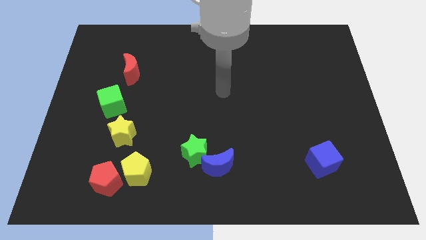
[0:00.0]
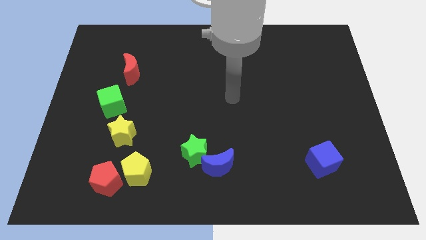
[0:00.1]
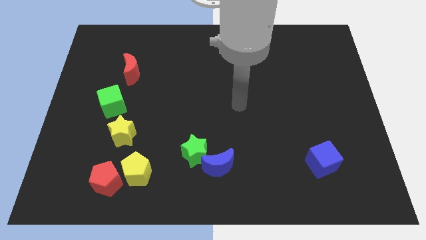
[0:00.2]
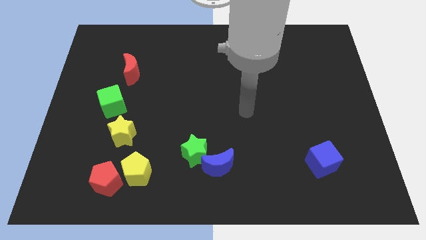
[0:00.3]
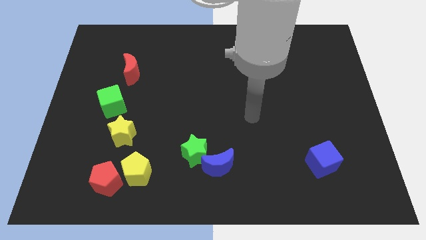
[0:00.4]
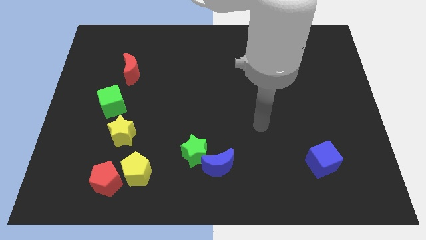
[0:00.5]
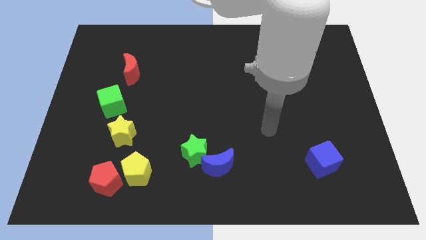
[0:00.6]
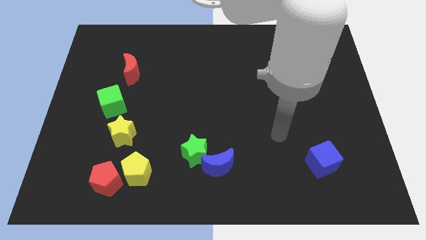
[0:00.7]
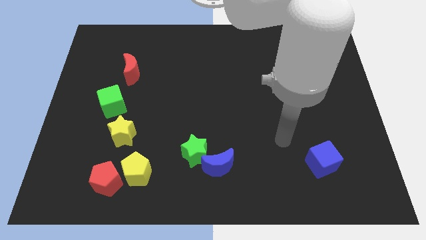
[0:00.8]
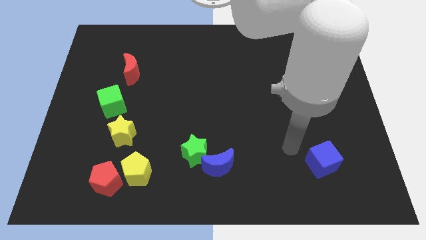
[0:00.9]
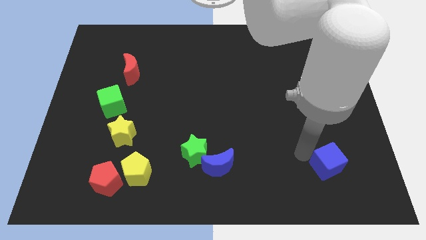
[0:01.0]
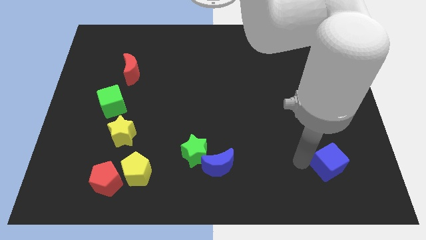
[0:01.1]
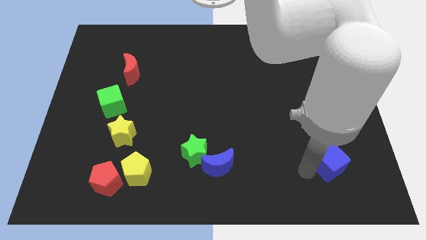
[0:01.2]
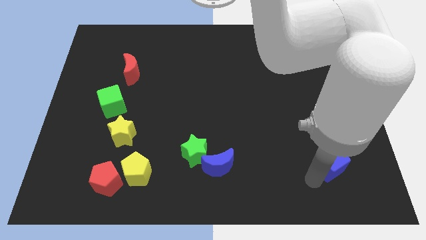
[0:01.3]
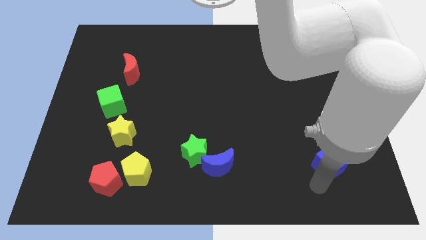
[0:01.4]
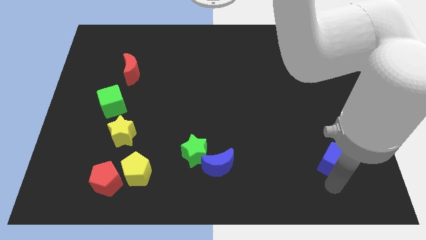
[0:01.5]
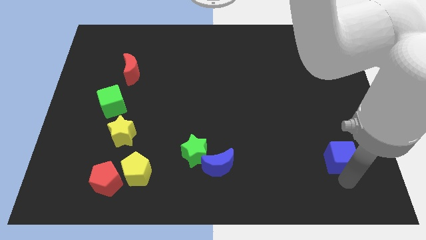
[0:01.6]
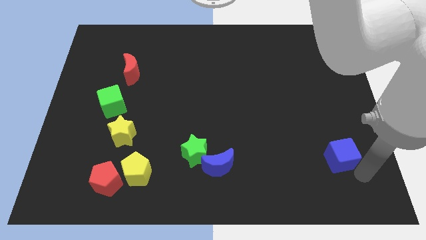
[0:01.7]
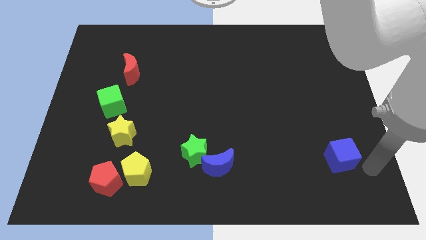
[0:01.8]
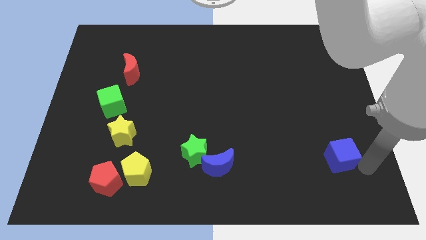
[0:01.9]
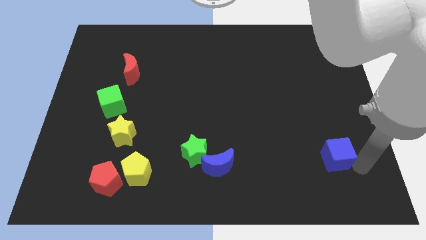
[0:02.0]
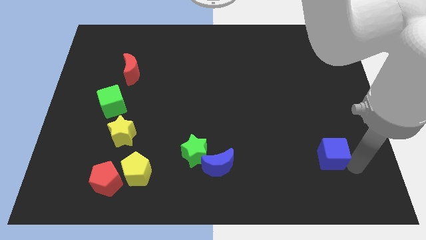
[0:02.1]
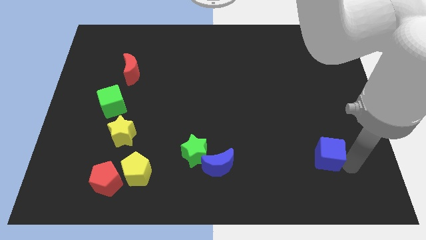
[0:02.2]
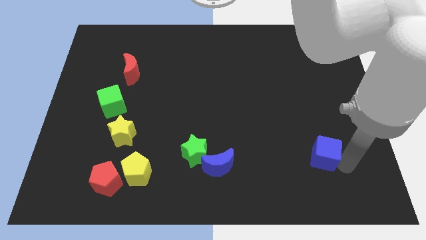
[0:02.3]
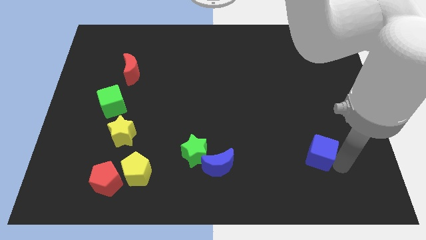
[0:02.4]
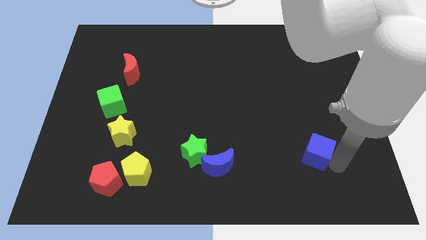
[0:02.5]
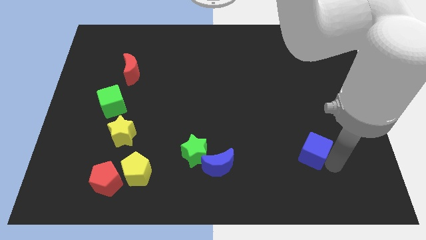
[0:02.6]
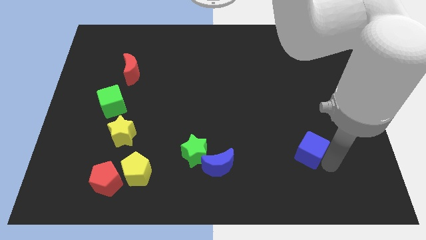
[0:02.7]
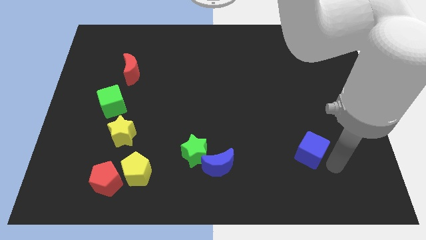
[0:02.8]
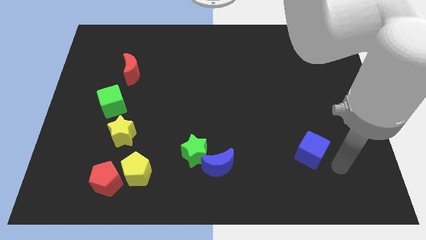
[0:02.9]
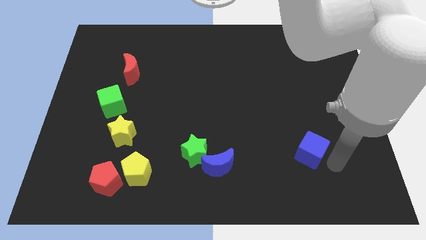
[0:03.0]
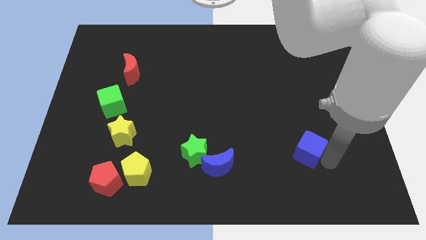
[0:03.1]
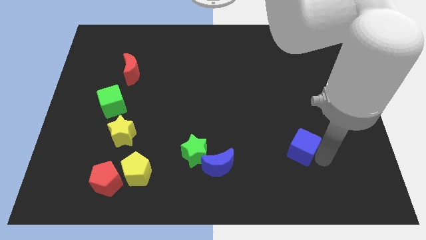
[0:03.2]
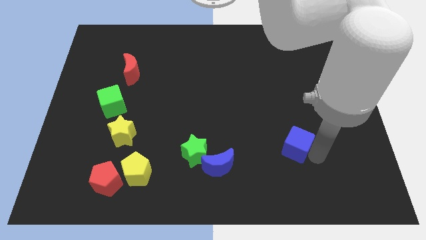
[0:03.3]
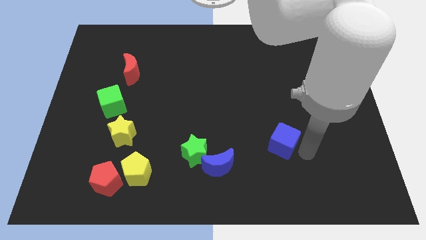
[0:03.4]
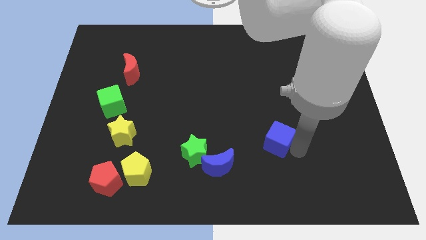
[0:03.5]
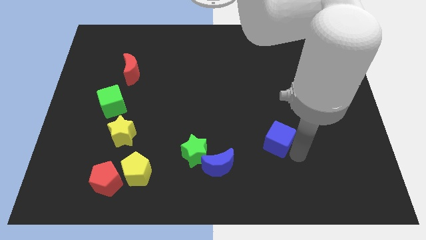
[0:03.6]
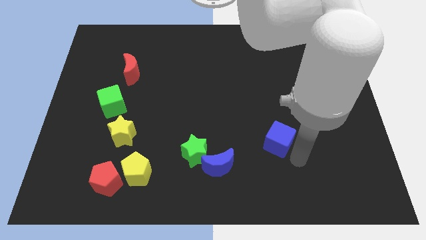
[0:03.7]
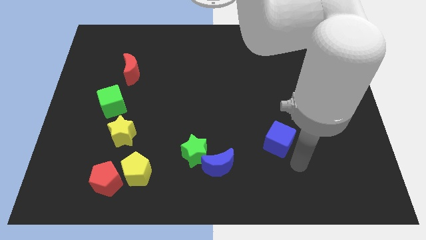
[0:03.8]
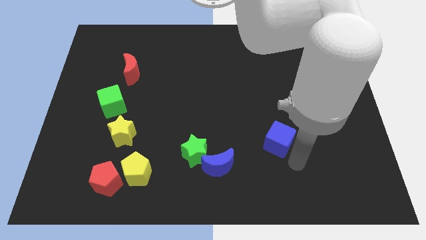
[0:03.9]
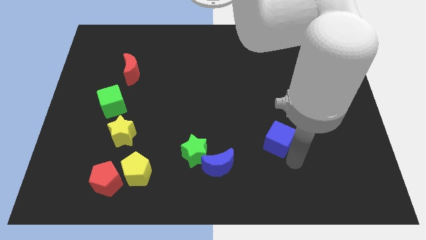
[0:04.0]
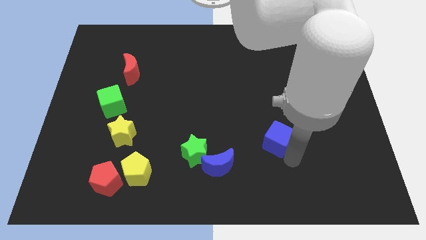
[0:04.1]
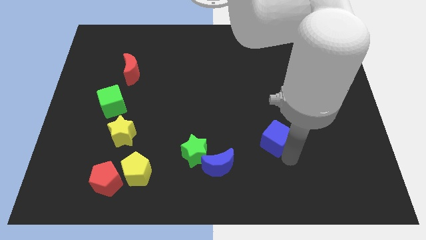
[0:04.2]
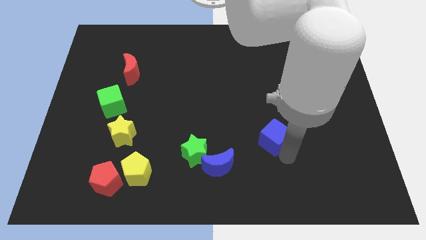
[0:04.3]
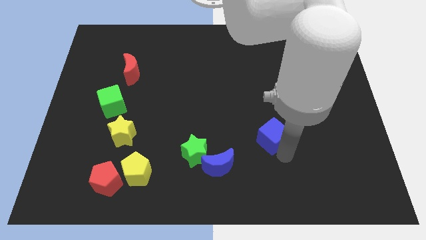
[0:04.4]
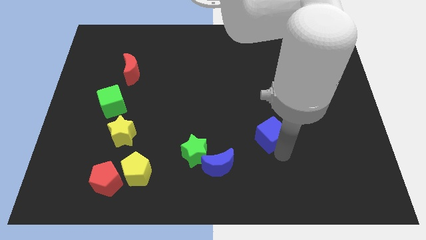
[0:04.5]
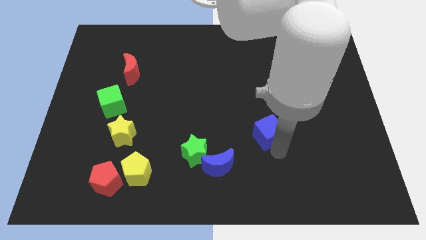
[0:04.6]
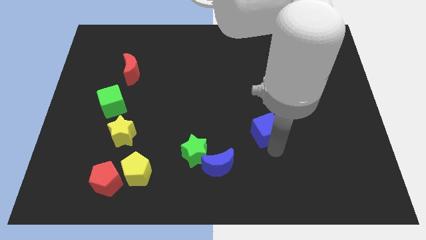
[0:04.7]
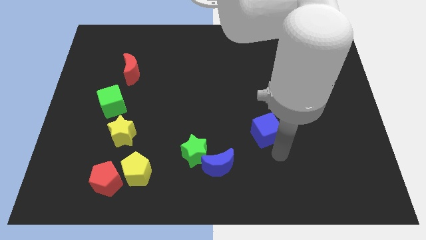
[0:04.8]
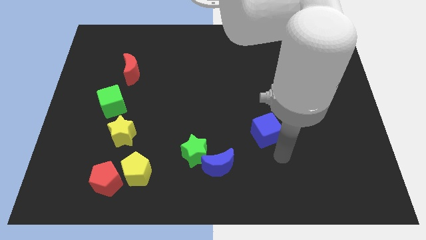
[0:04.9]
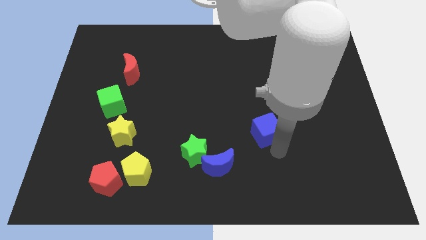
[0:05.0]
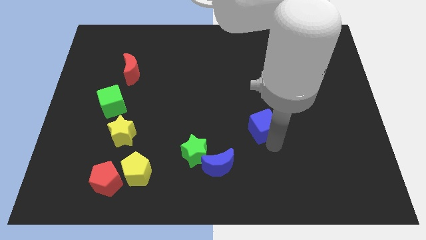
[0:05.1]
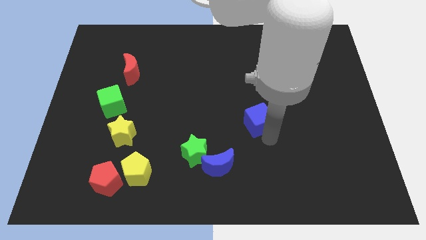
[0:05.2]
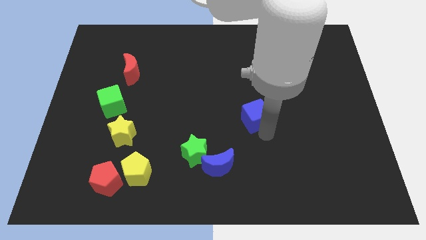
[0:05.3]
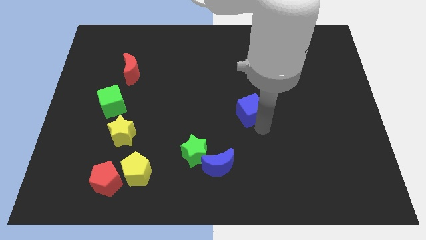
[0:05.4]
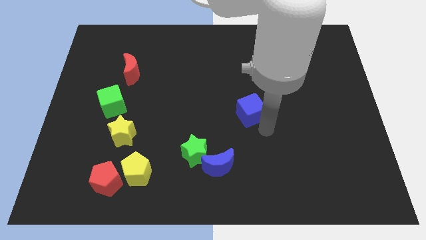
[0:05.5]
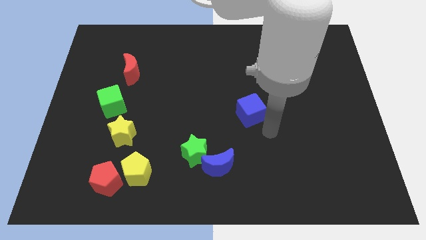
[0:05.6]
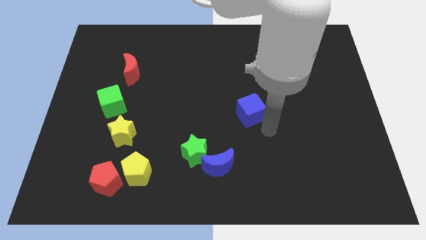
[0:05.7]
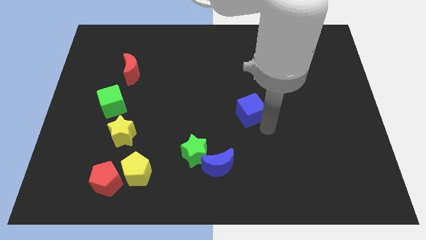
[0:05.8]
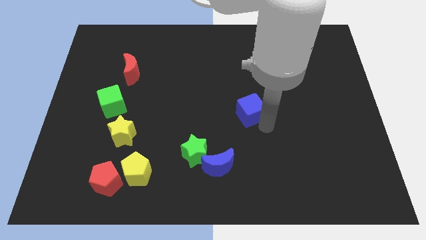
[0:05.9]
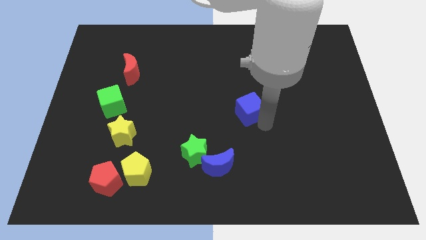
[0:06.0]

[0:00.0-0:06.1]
slide the blue cube up and then to the left

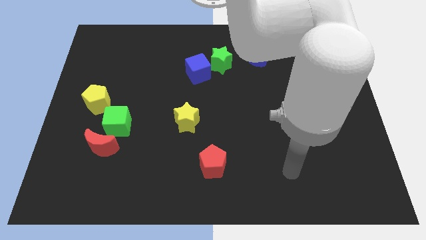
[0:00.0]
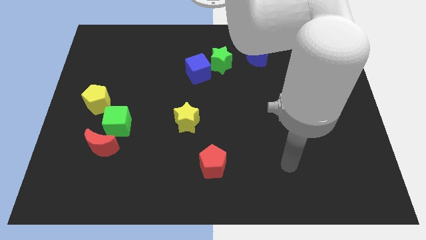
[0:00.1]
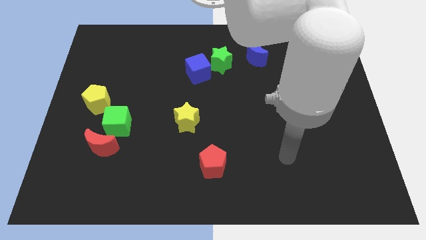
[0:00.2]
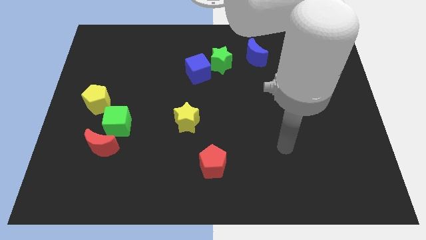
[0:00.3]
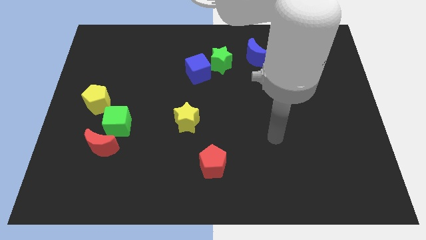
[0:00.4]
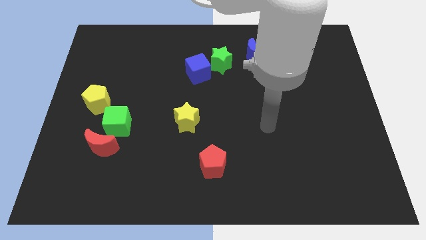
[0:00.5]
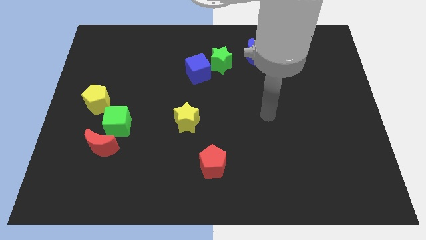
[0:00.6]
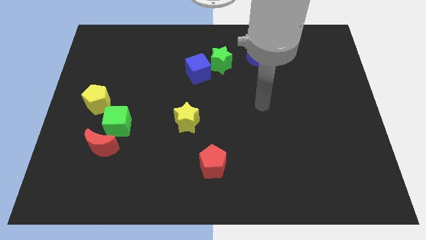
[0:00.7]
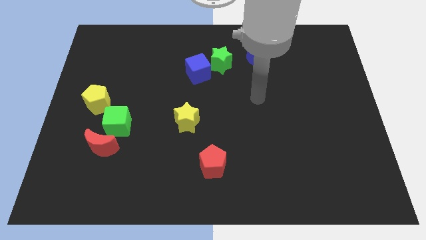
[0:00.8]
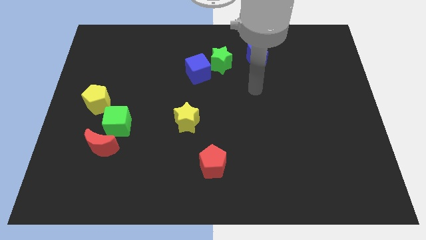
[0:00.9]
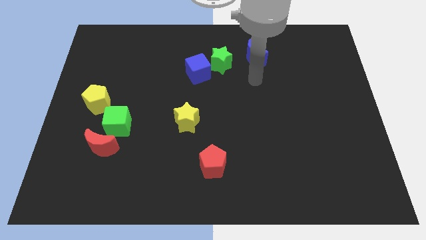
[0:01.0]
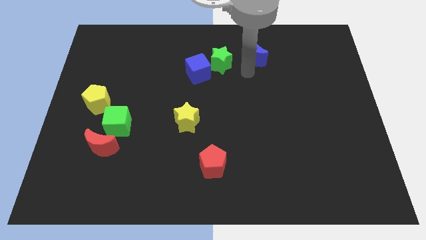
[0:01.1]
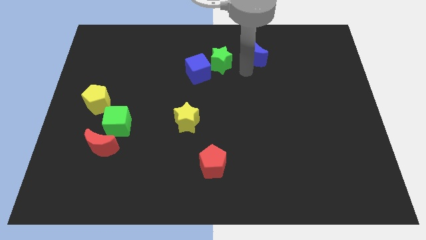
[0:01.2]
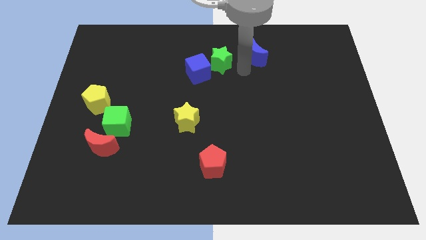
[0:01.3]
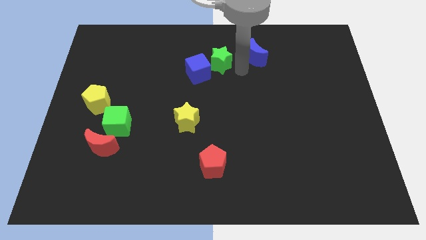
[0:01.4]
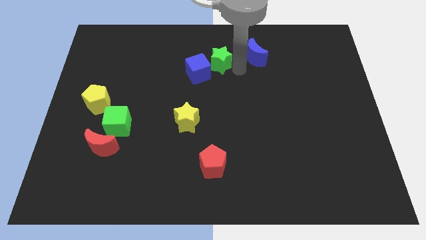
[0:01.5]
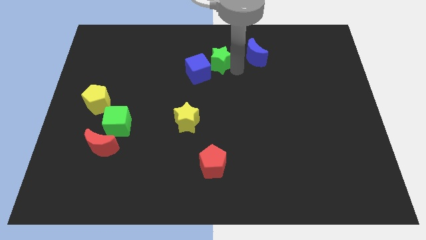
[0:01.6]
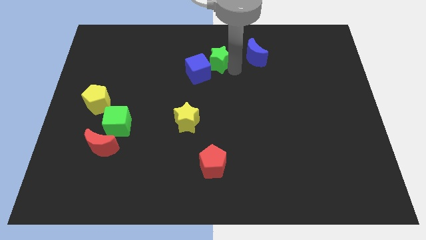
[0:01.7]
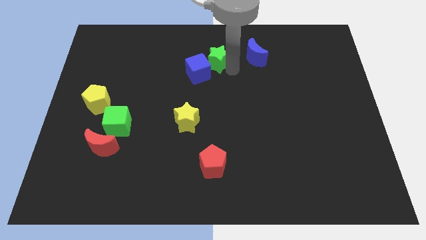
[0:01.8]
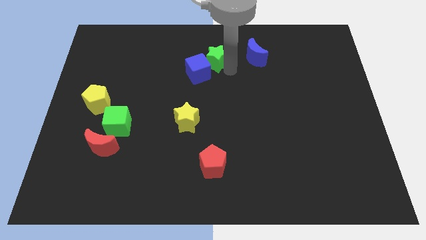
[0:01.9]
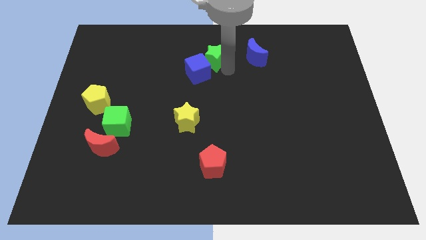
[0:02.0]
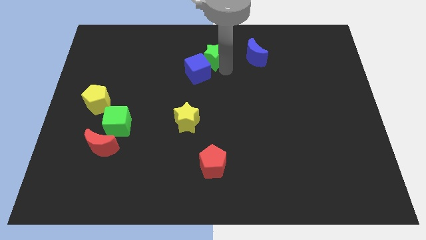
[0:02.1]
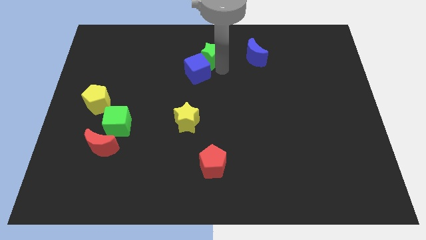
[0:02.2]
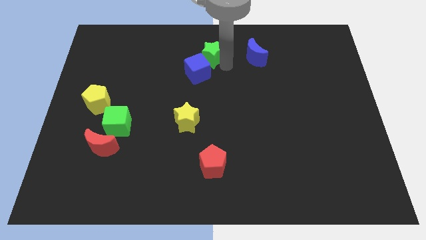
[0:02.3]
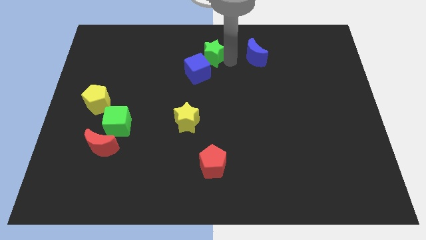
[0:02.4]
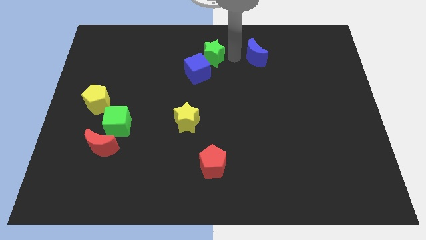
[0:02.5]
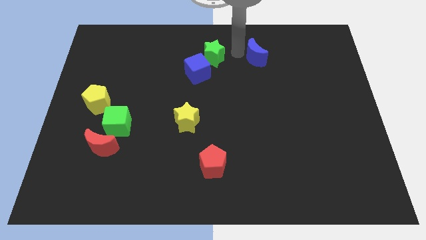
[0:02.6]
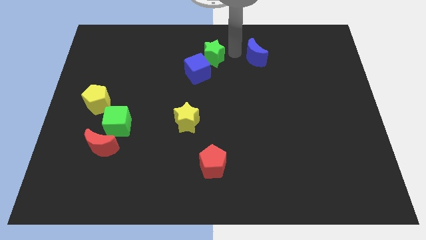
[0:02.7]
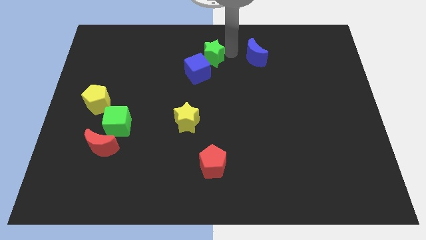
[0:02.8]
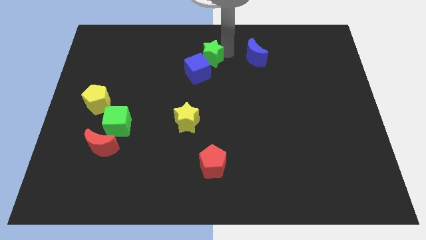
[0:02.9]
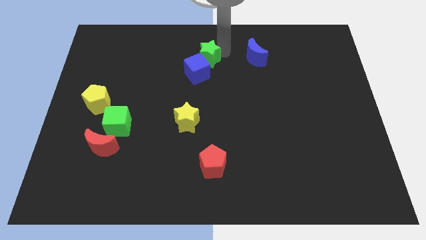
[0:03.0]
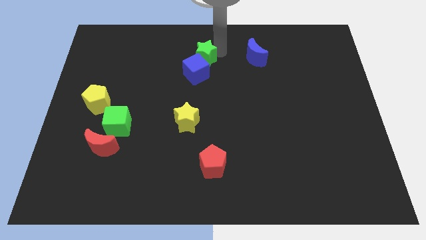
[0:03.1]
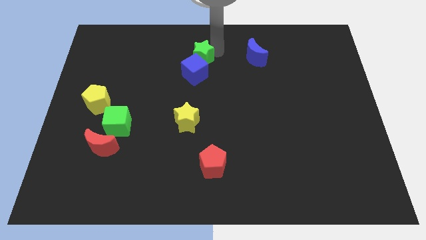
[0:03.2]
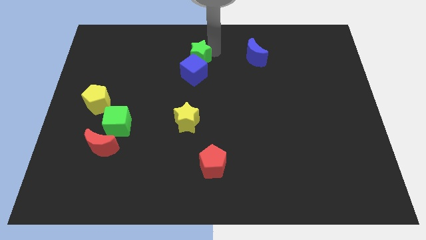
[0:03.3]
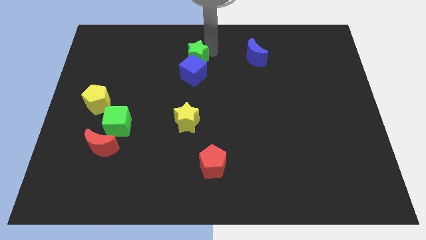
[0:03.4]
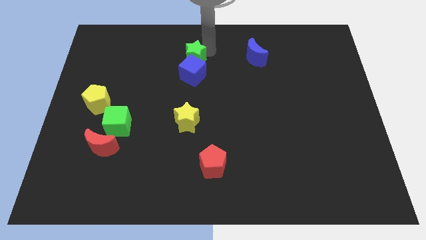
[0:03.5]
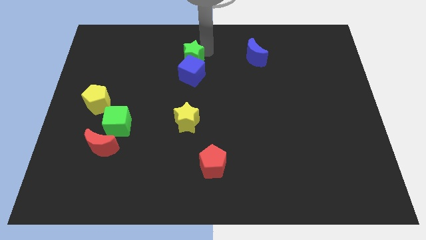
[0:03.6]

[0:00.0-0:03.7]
slide the green star somewhat to the left
